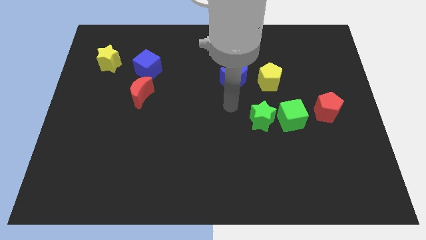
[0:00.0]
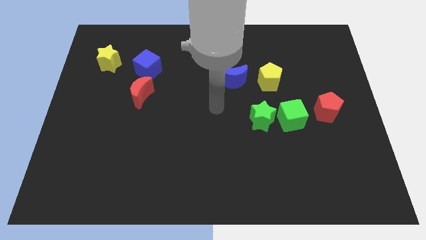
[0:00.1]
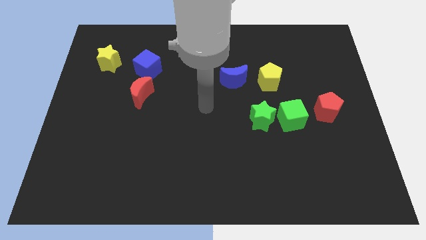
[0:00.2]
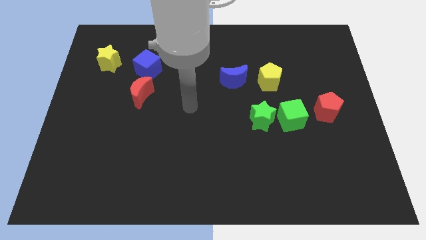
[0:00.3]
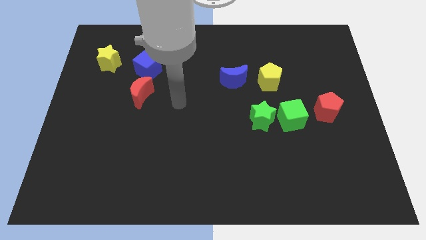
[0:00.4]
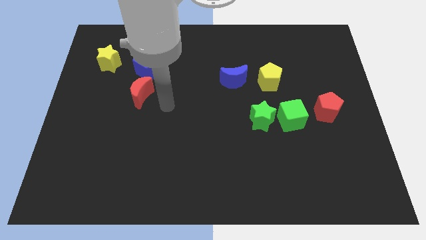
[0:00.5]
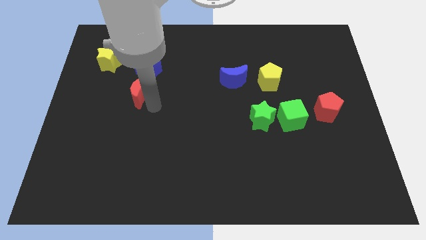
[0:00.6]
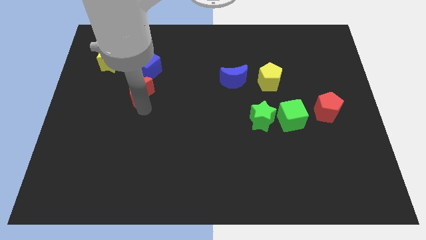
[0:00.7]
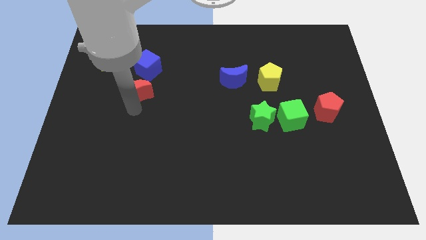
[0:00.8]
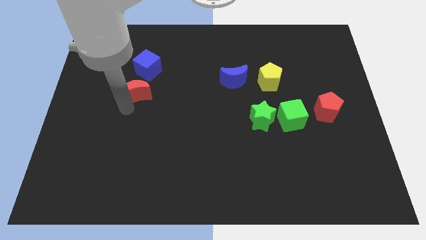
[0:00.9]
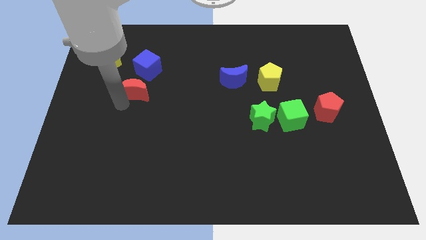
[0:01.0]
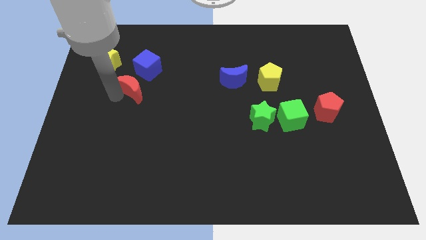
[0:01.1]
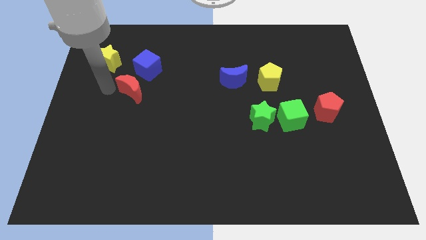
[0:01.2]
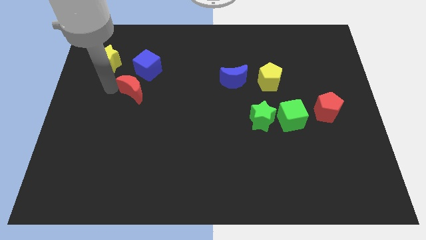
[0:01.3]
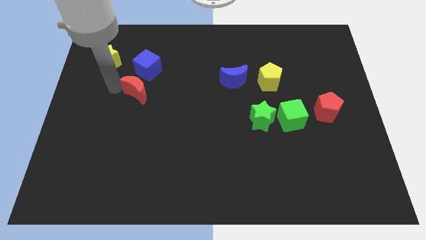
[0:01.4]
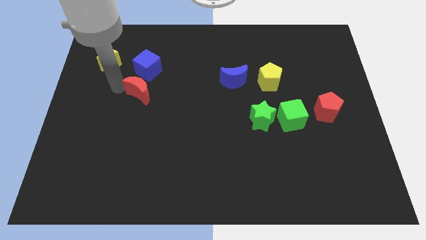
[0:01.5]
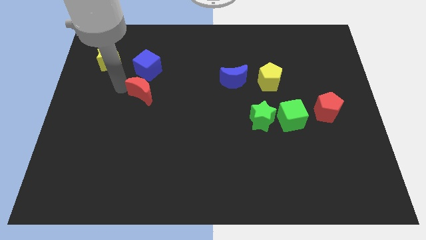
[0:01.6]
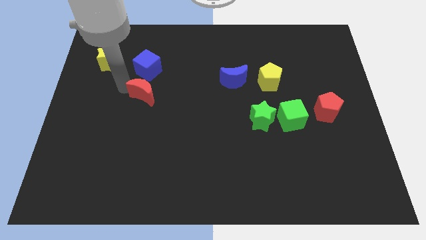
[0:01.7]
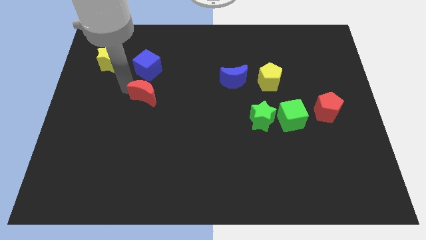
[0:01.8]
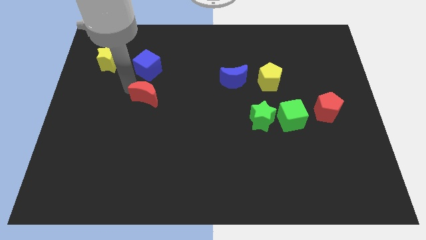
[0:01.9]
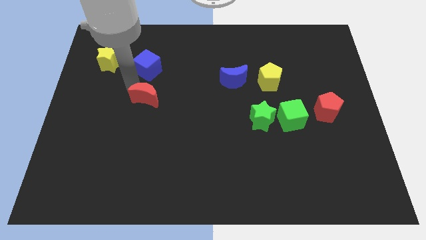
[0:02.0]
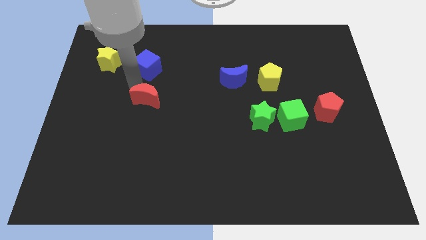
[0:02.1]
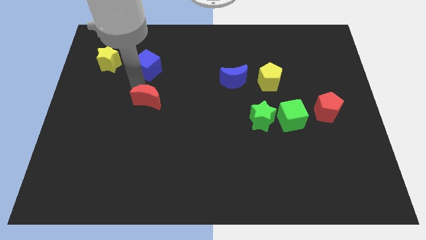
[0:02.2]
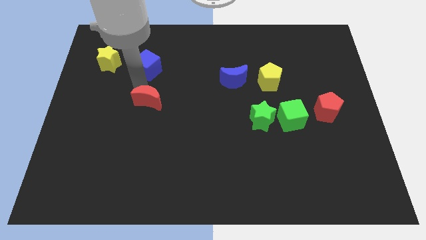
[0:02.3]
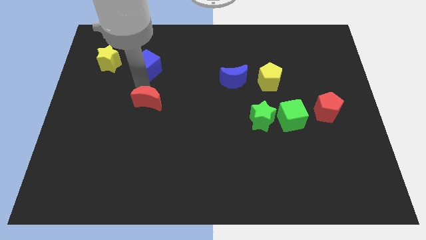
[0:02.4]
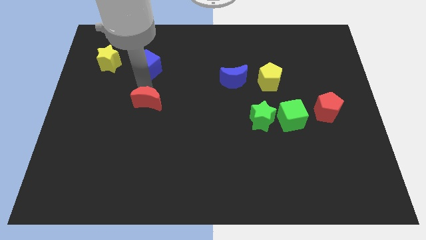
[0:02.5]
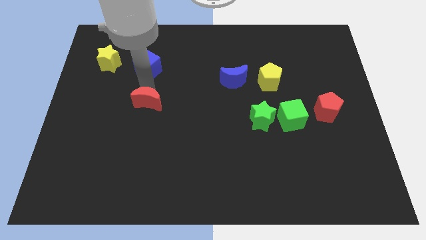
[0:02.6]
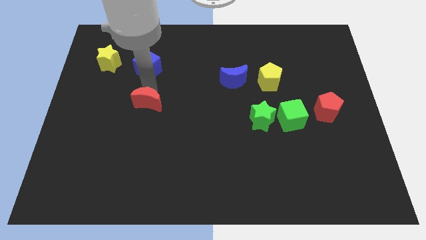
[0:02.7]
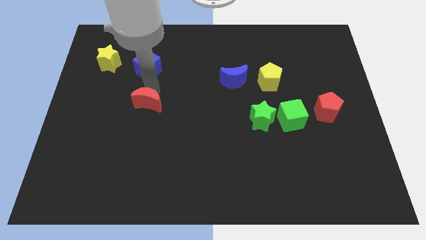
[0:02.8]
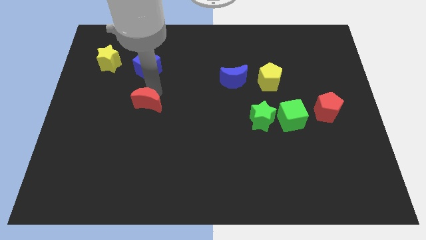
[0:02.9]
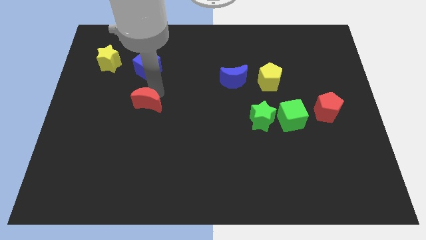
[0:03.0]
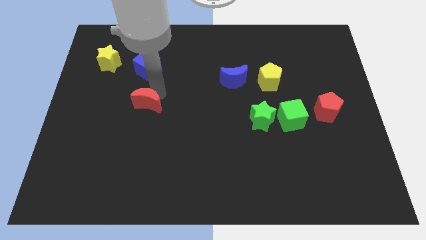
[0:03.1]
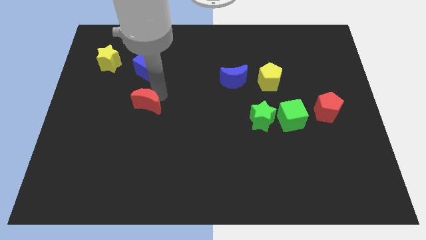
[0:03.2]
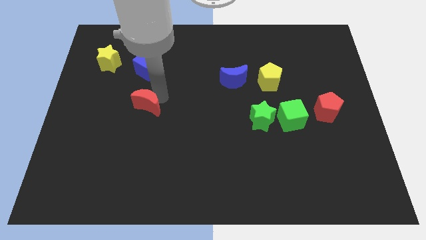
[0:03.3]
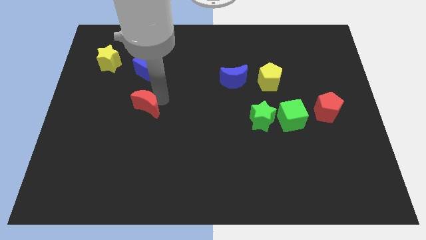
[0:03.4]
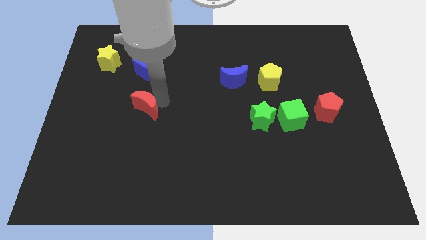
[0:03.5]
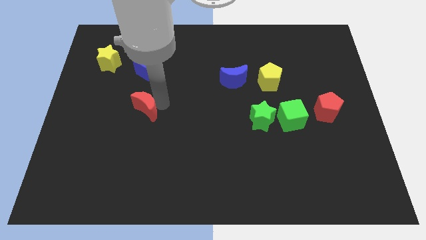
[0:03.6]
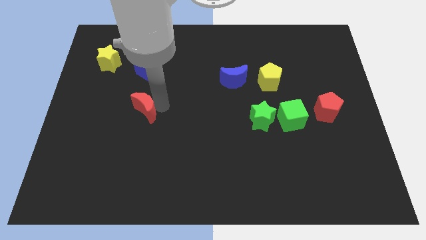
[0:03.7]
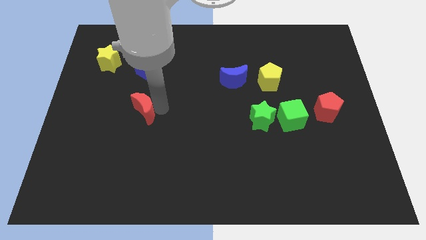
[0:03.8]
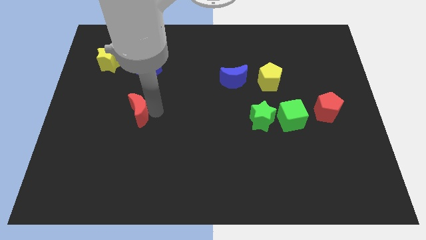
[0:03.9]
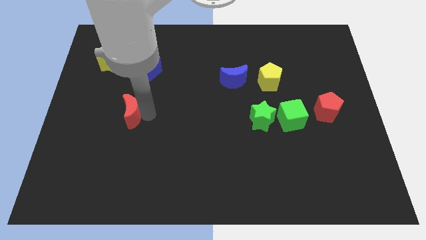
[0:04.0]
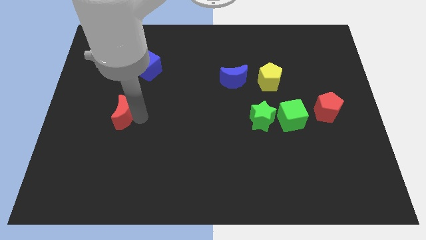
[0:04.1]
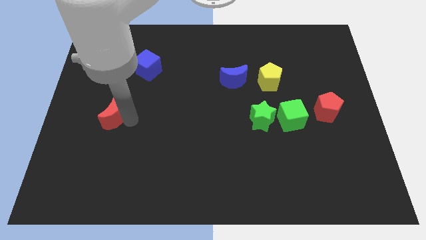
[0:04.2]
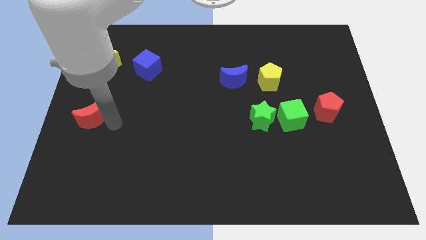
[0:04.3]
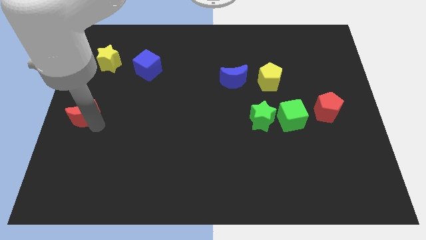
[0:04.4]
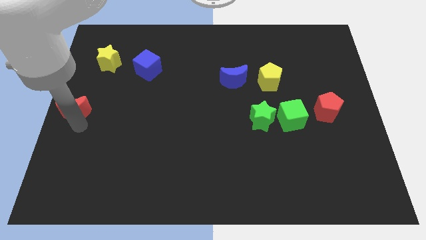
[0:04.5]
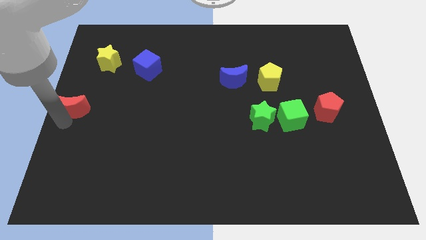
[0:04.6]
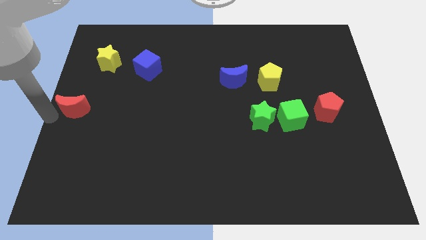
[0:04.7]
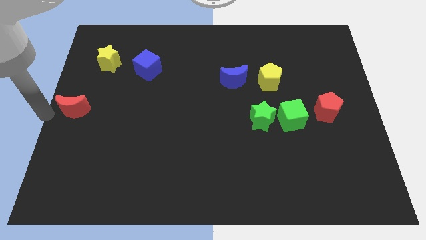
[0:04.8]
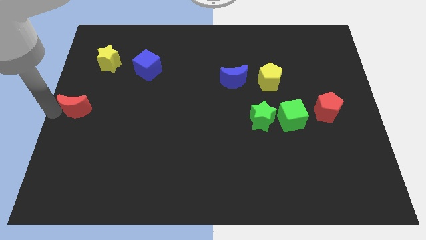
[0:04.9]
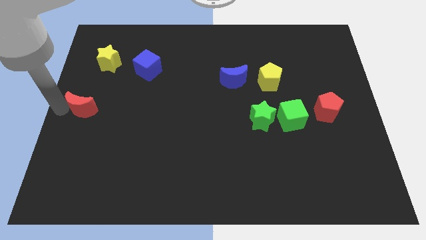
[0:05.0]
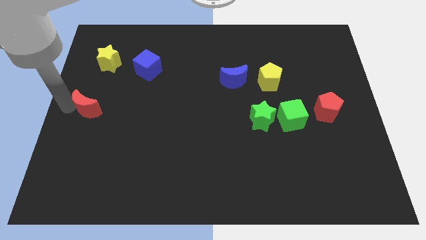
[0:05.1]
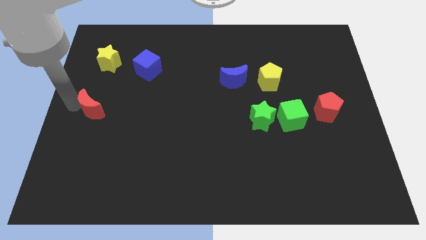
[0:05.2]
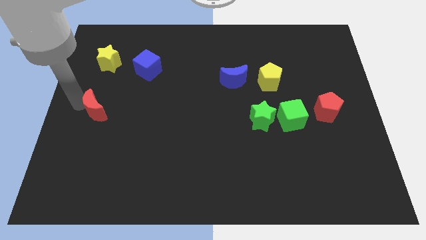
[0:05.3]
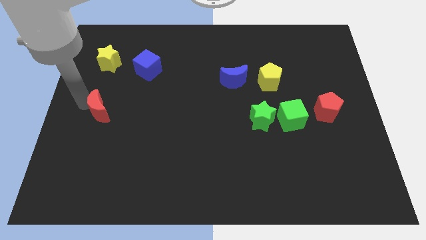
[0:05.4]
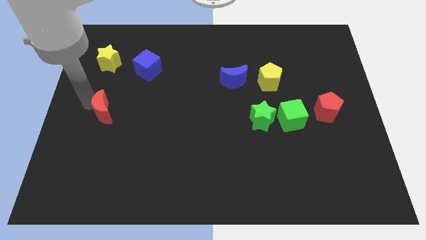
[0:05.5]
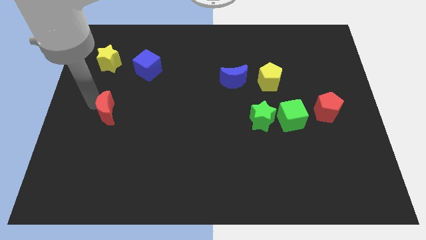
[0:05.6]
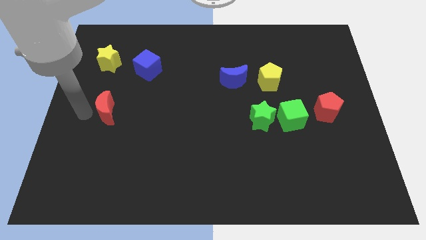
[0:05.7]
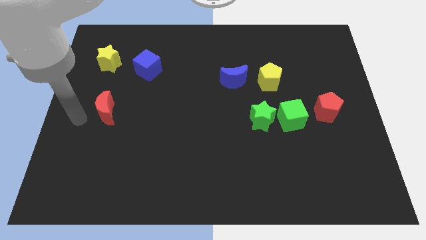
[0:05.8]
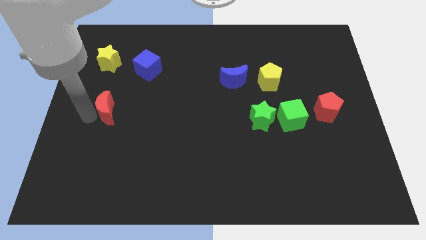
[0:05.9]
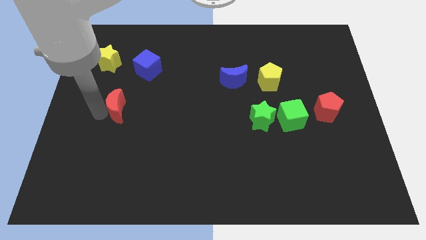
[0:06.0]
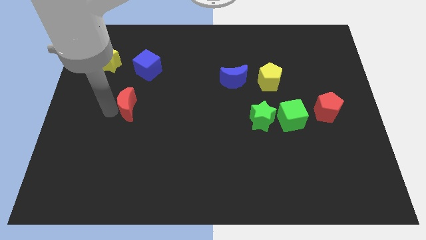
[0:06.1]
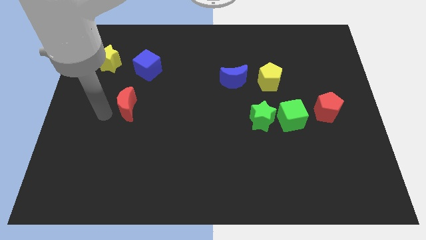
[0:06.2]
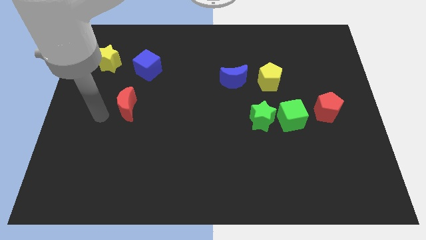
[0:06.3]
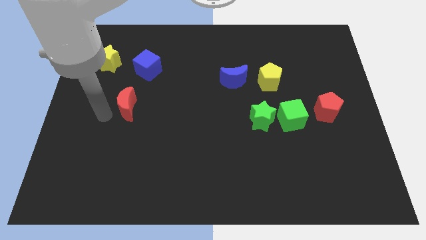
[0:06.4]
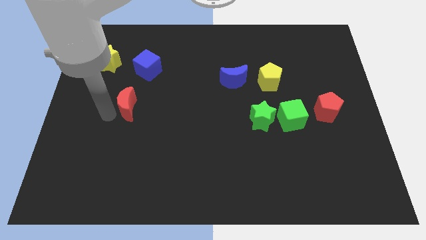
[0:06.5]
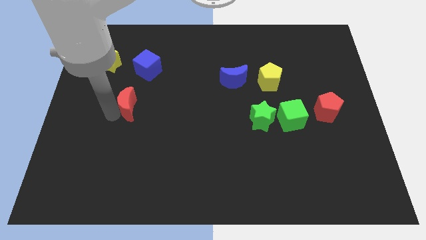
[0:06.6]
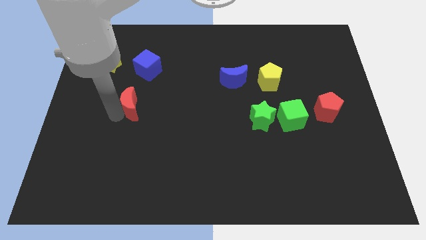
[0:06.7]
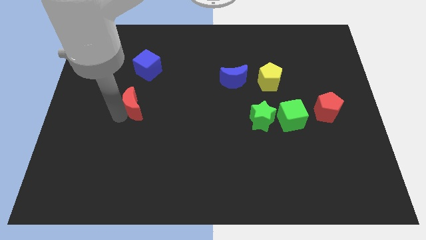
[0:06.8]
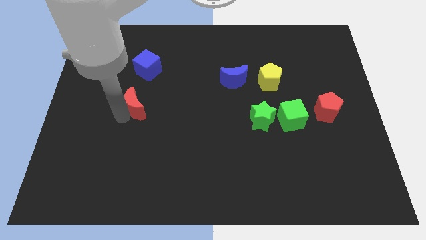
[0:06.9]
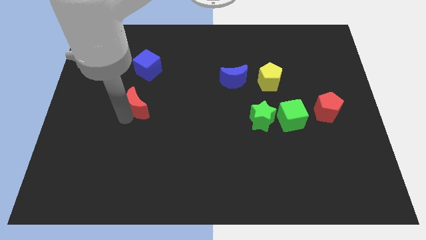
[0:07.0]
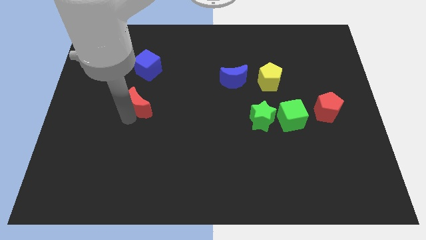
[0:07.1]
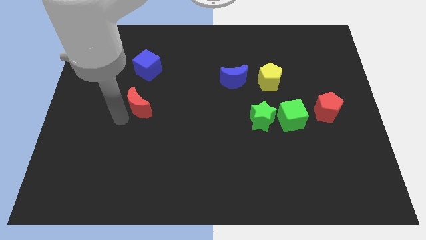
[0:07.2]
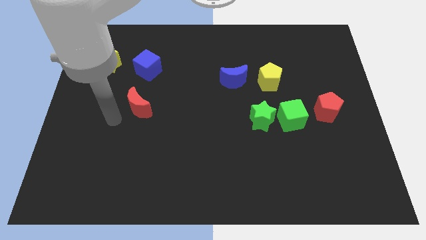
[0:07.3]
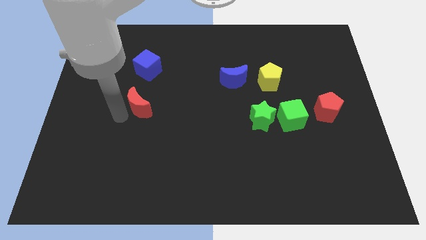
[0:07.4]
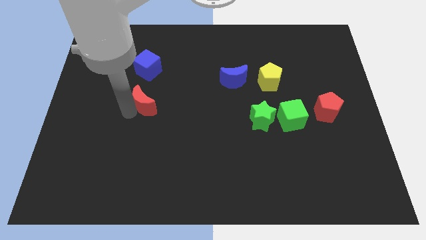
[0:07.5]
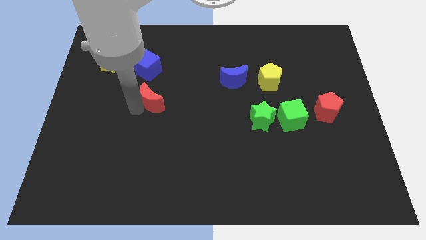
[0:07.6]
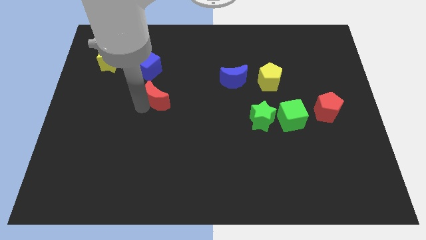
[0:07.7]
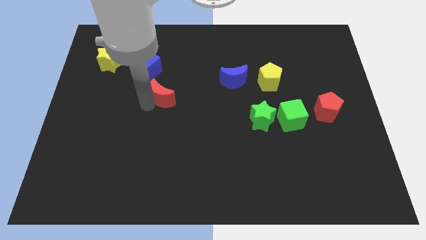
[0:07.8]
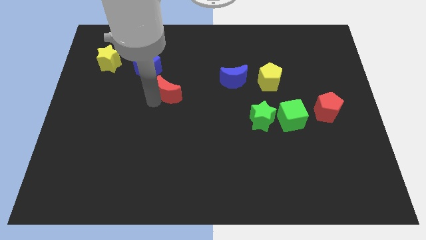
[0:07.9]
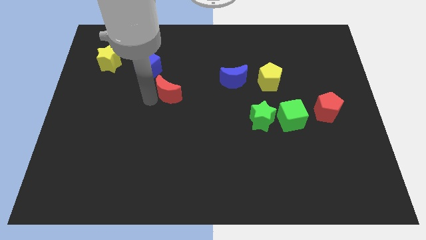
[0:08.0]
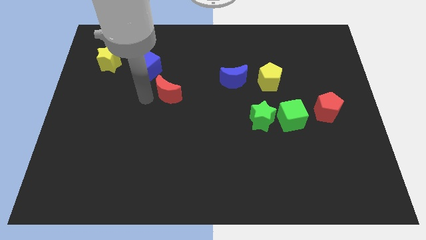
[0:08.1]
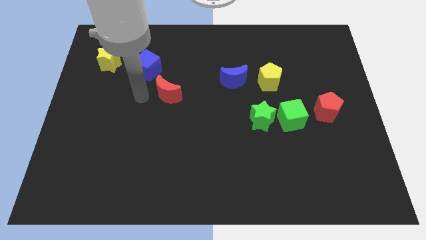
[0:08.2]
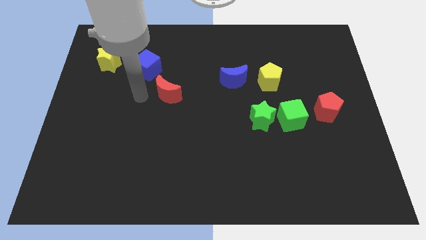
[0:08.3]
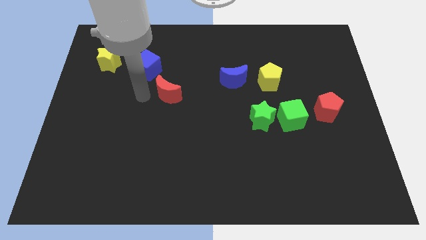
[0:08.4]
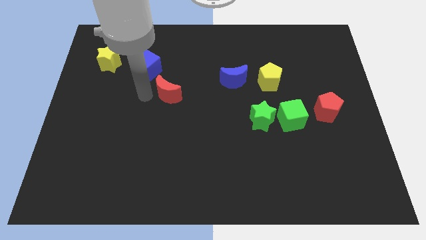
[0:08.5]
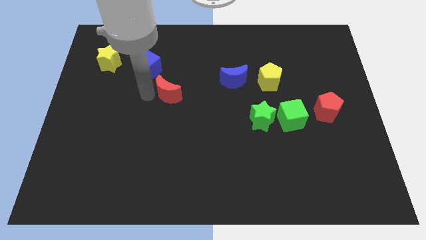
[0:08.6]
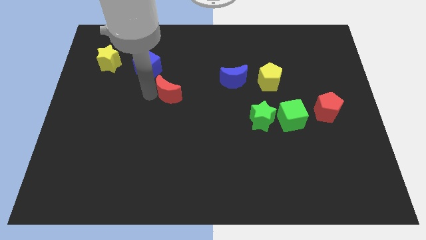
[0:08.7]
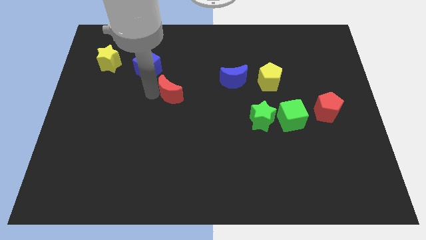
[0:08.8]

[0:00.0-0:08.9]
slide the red moon to the right somewhat
